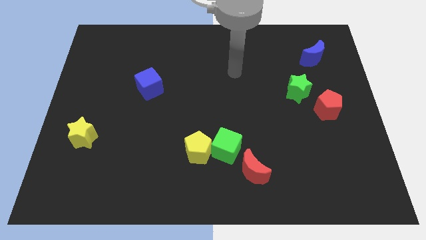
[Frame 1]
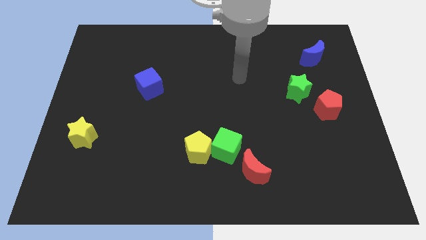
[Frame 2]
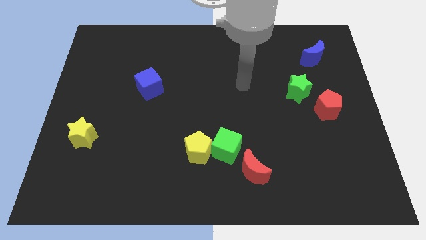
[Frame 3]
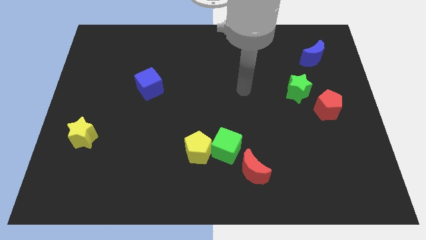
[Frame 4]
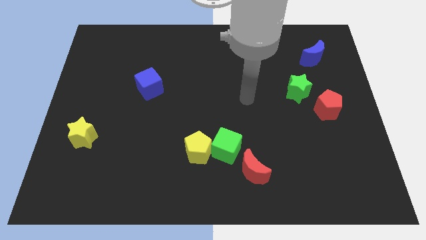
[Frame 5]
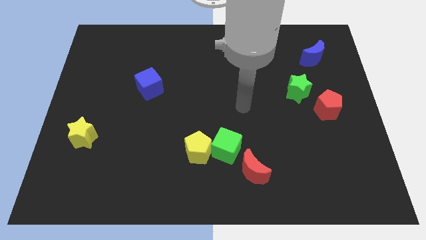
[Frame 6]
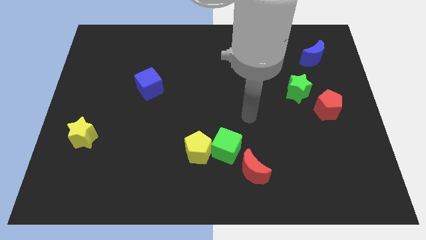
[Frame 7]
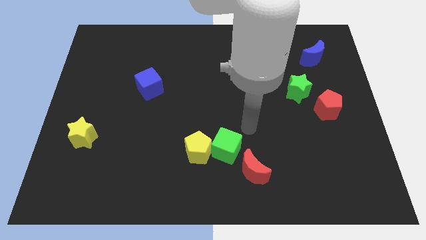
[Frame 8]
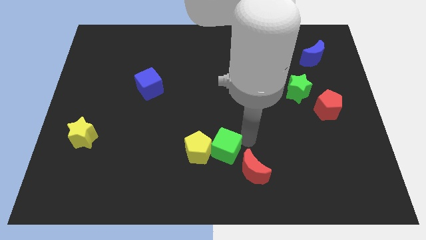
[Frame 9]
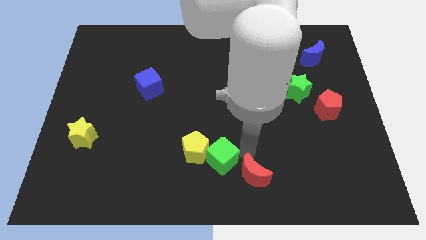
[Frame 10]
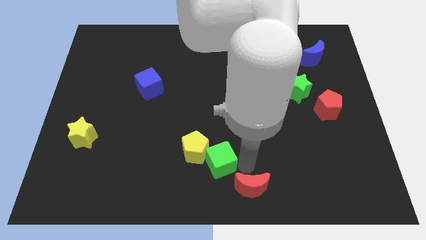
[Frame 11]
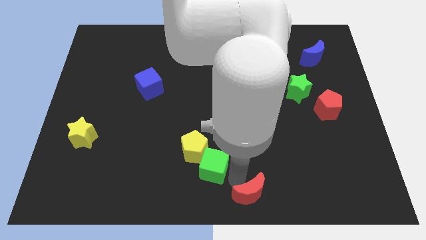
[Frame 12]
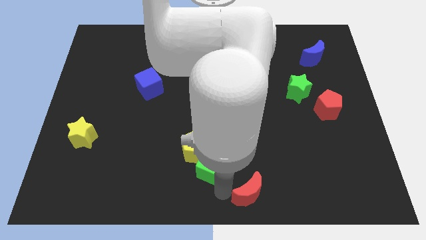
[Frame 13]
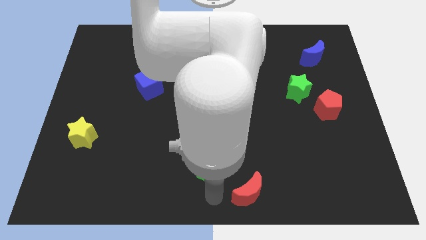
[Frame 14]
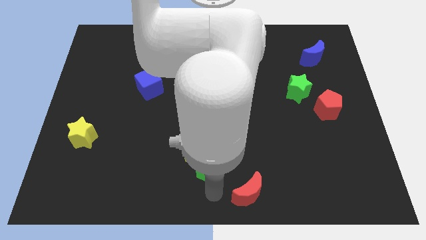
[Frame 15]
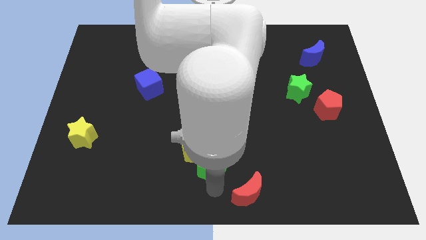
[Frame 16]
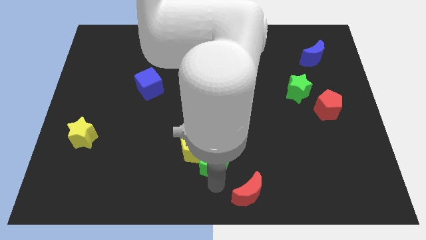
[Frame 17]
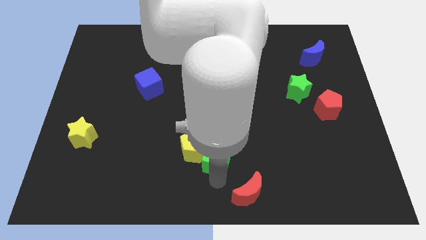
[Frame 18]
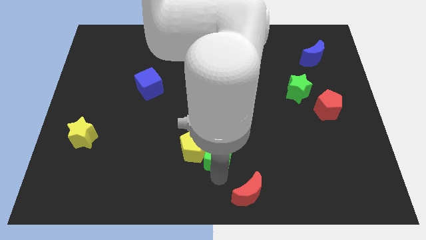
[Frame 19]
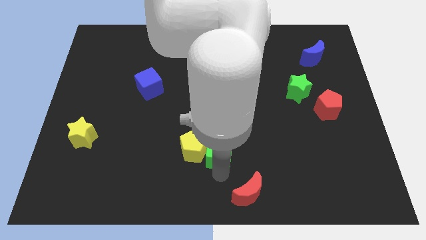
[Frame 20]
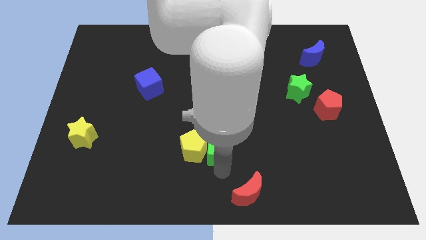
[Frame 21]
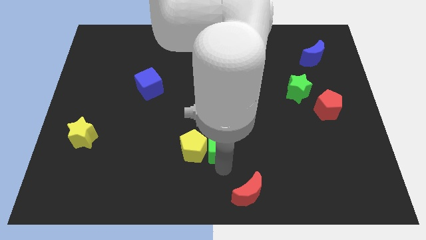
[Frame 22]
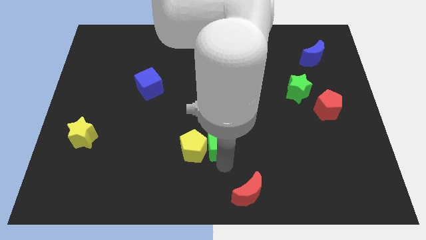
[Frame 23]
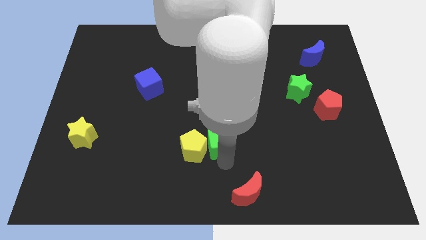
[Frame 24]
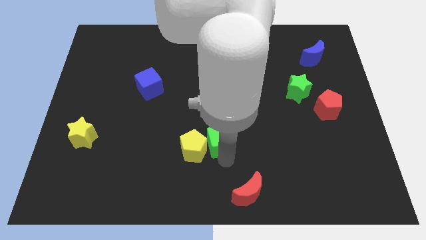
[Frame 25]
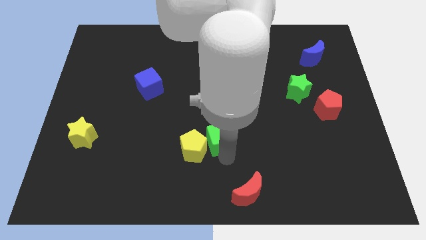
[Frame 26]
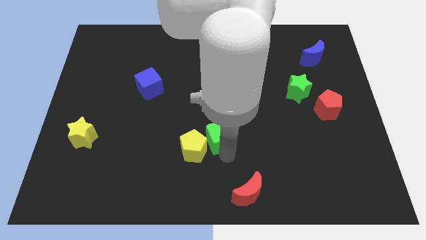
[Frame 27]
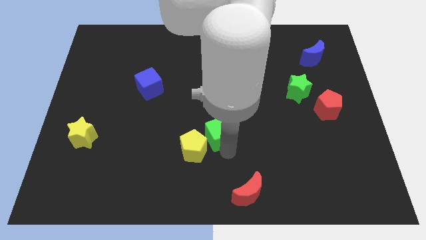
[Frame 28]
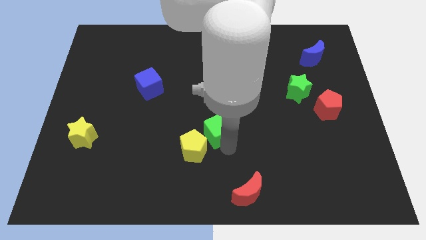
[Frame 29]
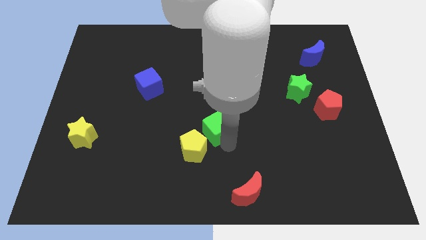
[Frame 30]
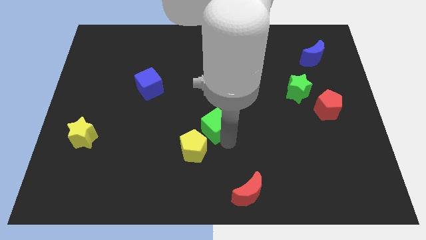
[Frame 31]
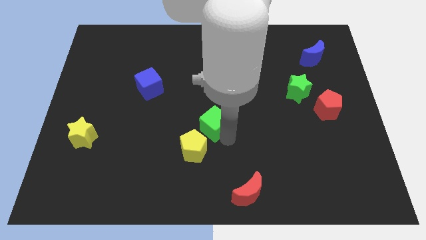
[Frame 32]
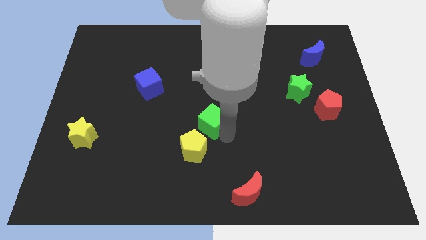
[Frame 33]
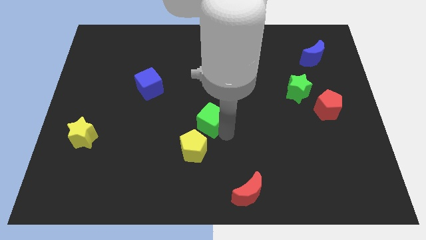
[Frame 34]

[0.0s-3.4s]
slightly slide the green cube up and to the left diagonally

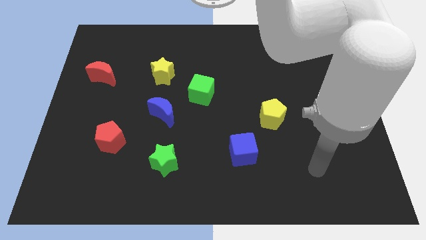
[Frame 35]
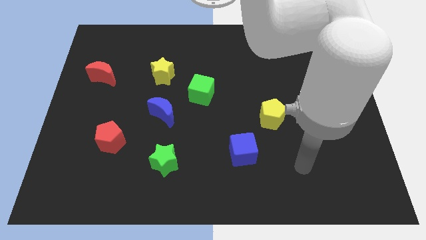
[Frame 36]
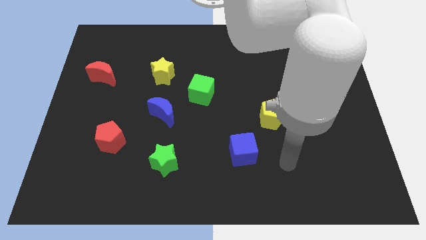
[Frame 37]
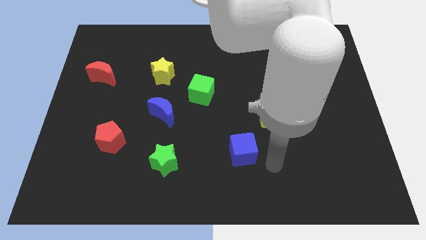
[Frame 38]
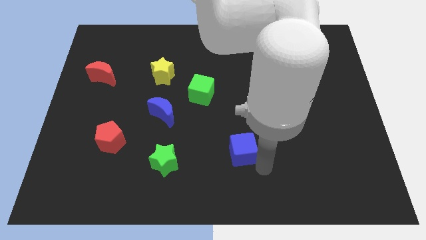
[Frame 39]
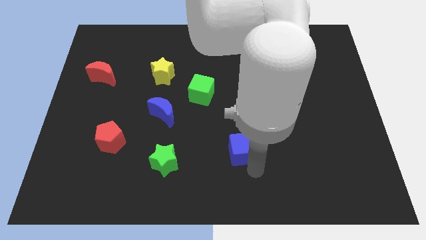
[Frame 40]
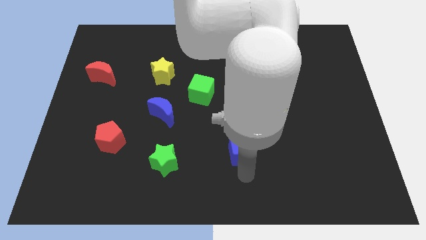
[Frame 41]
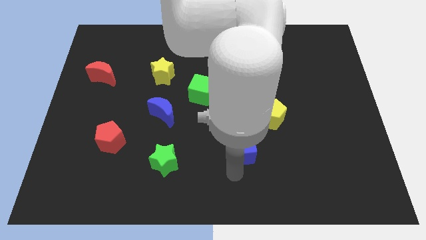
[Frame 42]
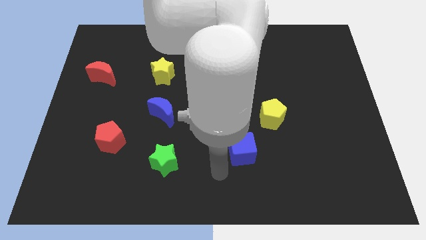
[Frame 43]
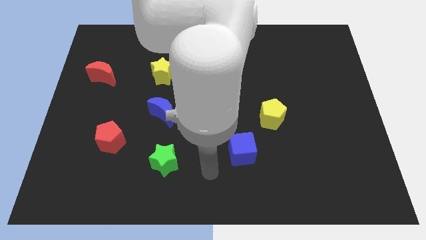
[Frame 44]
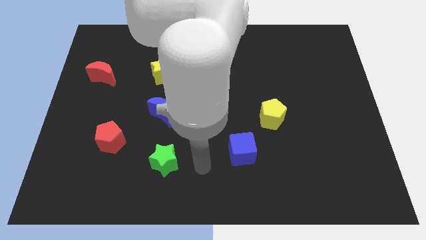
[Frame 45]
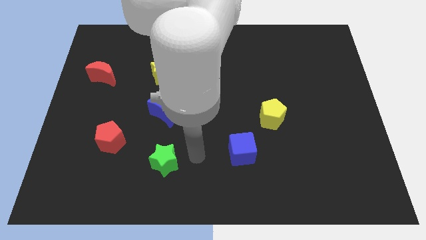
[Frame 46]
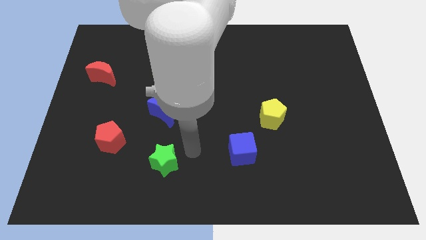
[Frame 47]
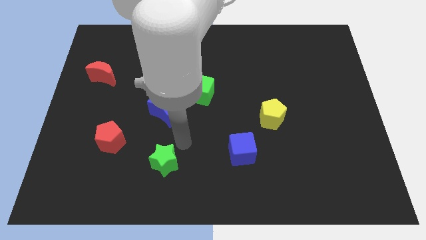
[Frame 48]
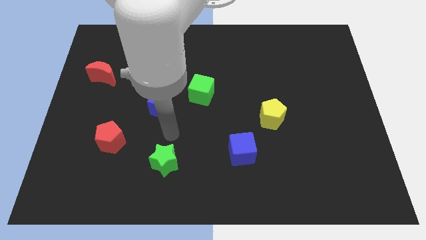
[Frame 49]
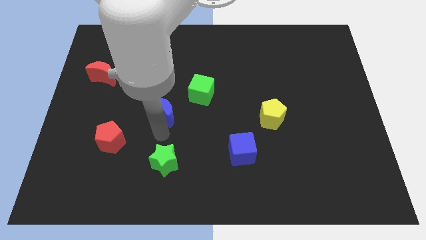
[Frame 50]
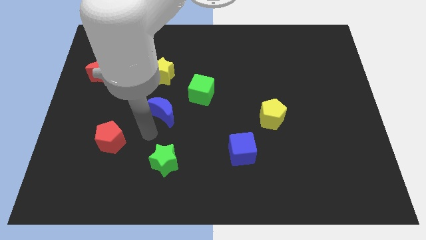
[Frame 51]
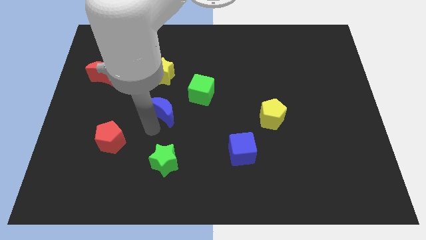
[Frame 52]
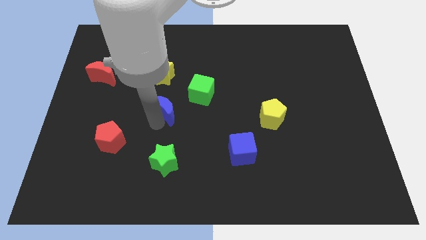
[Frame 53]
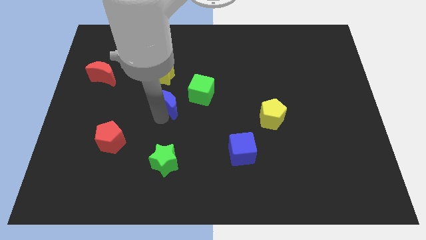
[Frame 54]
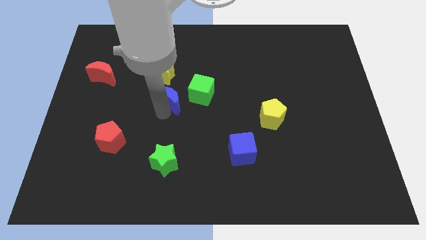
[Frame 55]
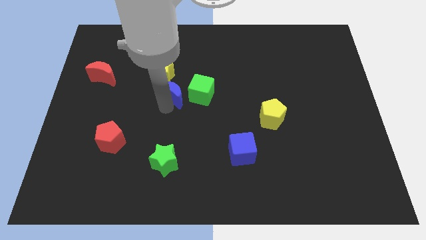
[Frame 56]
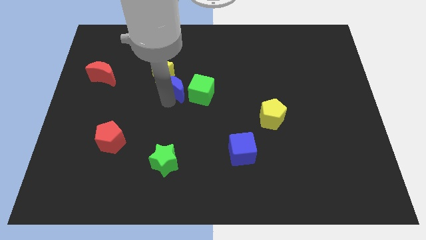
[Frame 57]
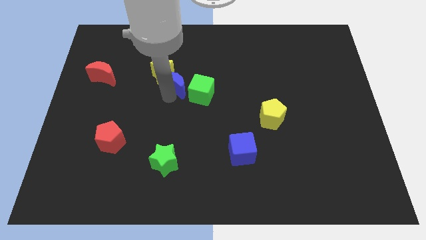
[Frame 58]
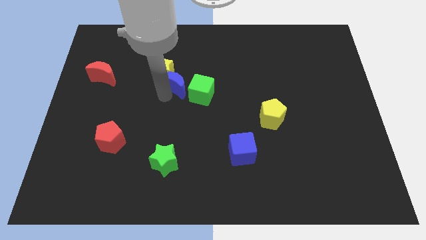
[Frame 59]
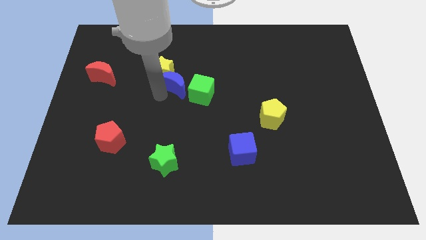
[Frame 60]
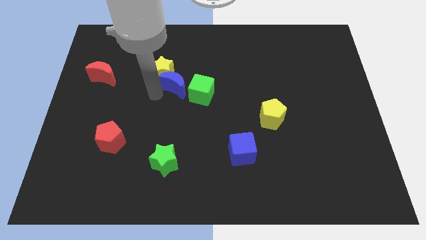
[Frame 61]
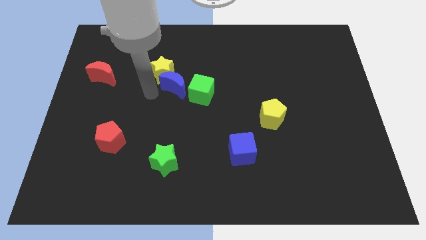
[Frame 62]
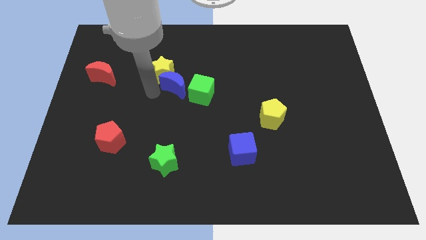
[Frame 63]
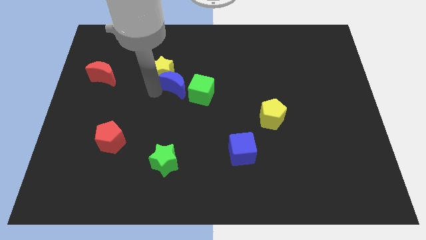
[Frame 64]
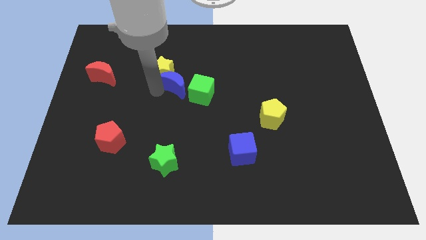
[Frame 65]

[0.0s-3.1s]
slide the blue moon slightly up and then to the right

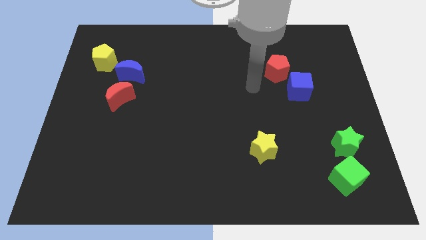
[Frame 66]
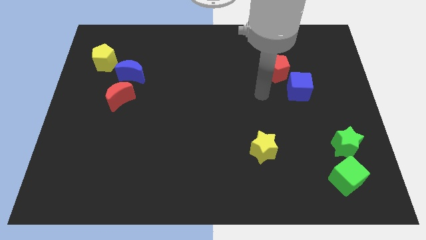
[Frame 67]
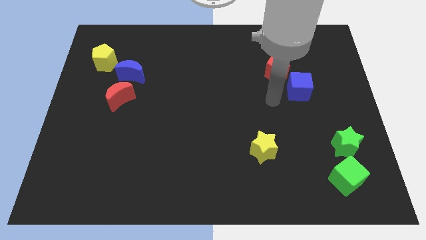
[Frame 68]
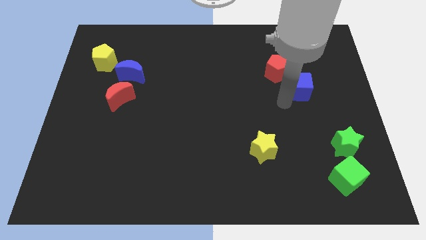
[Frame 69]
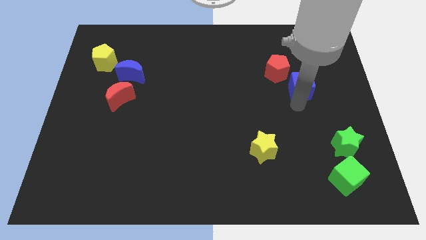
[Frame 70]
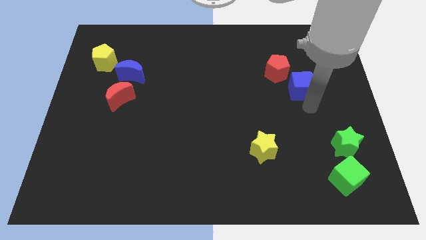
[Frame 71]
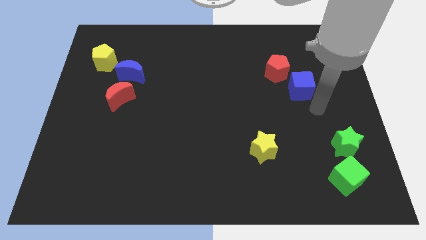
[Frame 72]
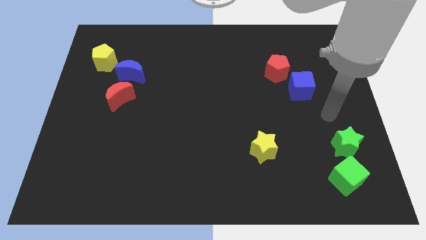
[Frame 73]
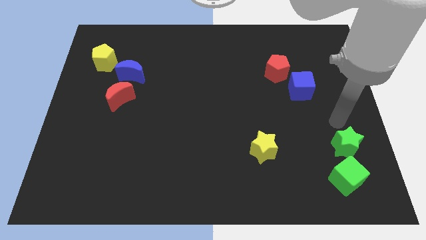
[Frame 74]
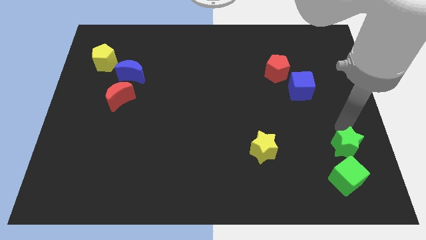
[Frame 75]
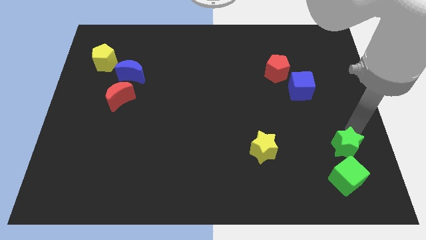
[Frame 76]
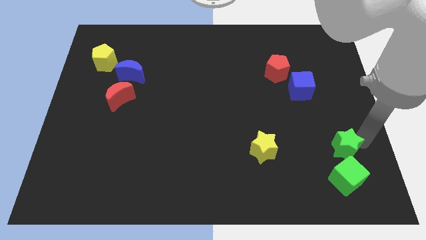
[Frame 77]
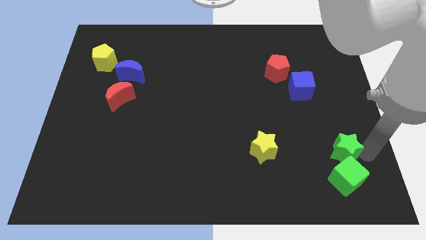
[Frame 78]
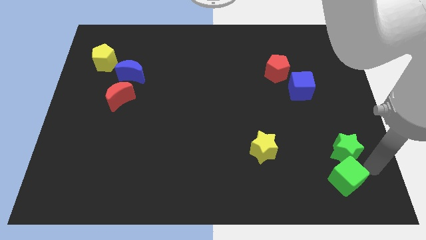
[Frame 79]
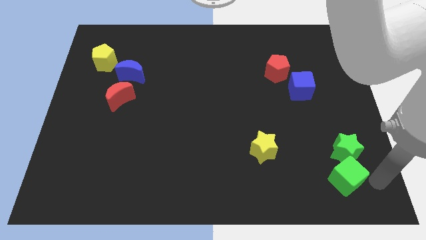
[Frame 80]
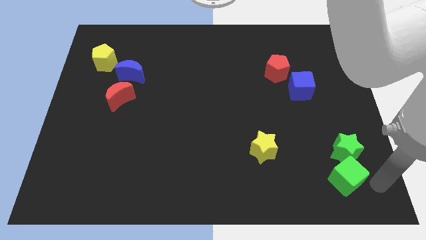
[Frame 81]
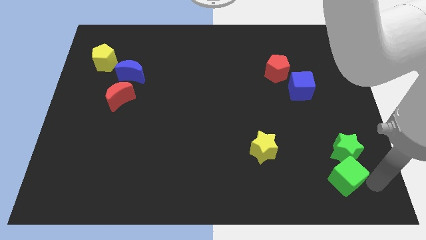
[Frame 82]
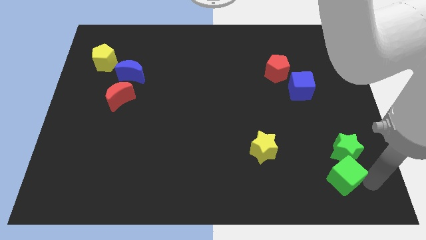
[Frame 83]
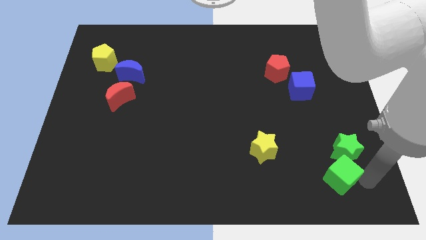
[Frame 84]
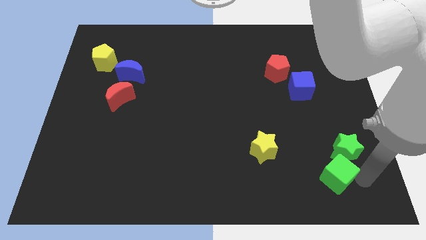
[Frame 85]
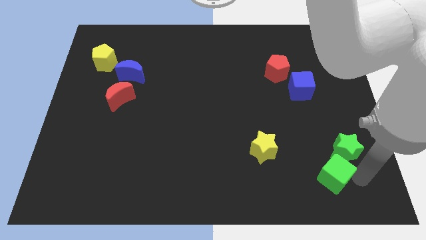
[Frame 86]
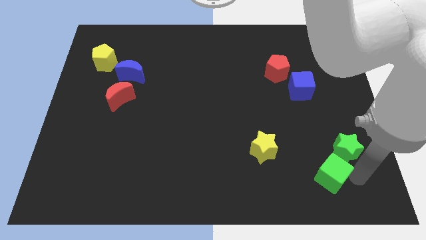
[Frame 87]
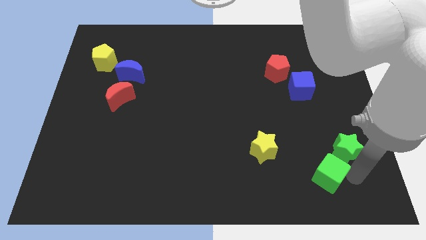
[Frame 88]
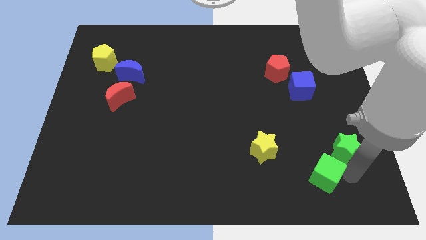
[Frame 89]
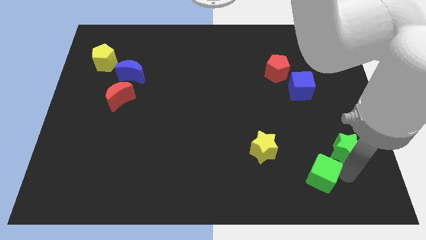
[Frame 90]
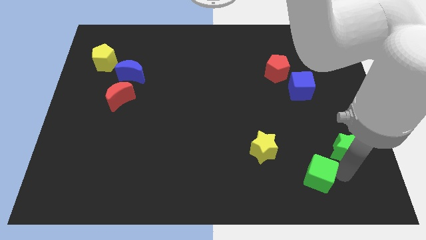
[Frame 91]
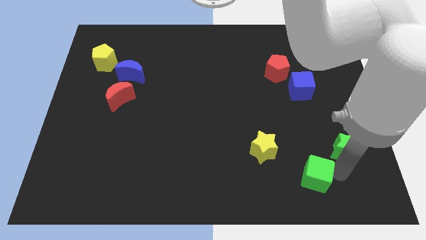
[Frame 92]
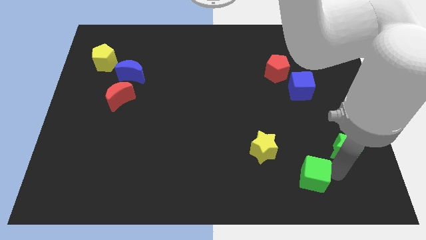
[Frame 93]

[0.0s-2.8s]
push the green cube left somewhat
